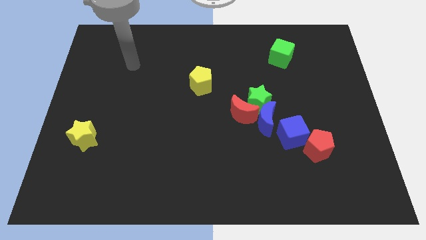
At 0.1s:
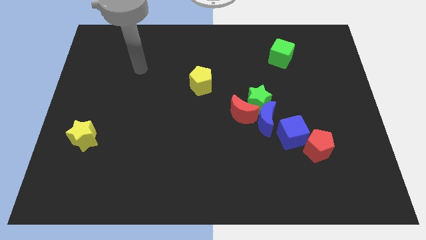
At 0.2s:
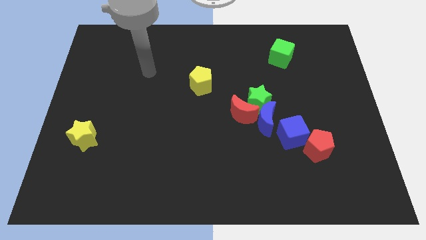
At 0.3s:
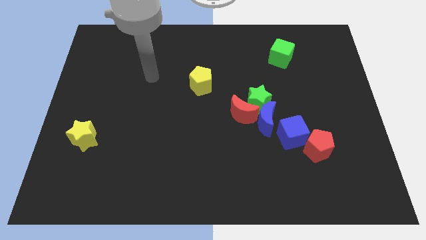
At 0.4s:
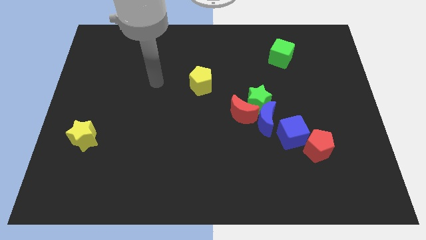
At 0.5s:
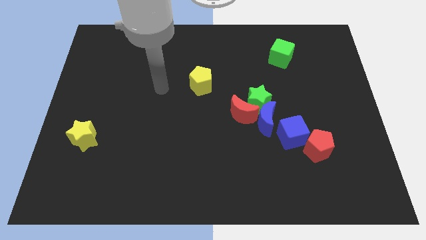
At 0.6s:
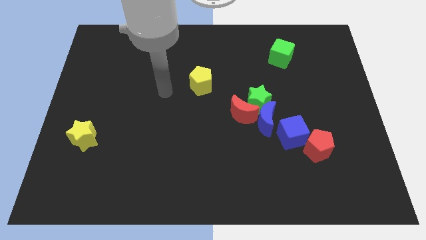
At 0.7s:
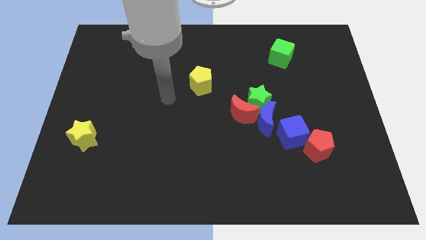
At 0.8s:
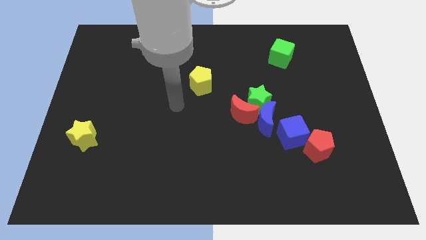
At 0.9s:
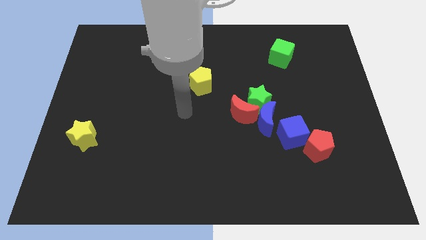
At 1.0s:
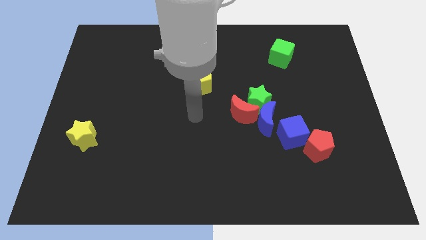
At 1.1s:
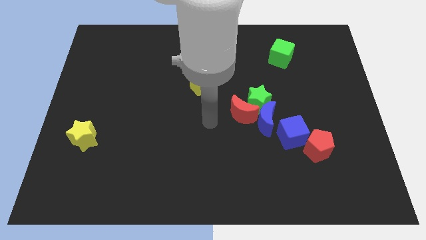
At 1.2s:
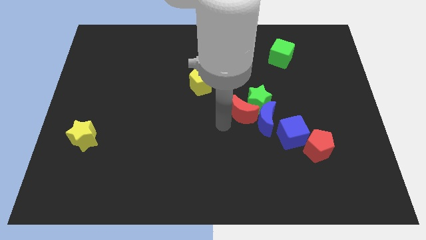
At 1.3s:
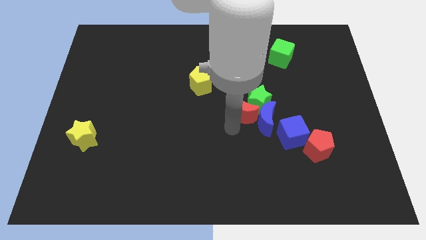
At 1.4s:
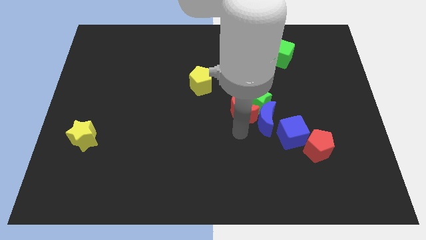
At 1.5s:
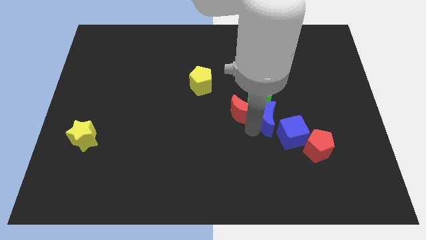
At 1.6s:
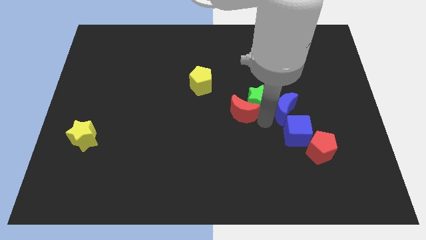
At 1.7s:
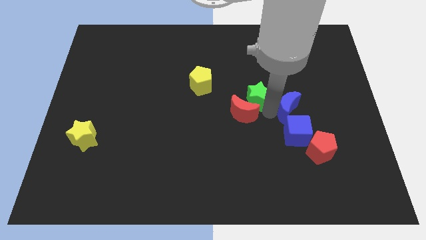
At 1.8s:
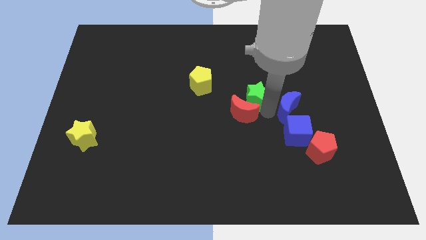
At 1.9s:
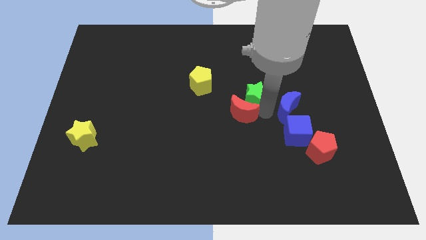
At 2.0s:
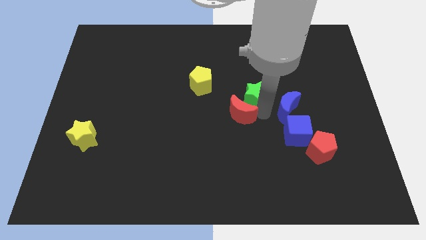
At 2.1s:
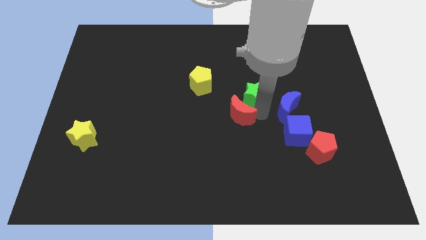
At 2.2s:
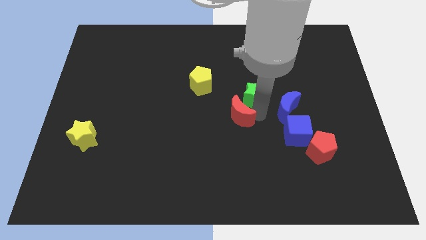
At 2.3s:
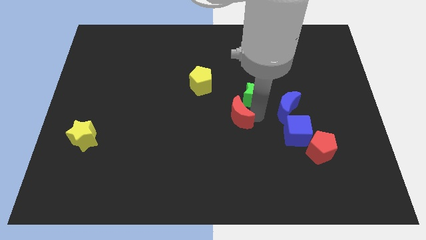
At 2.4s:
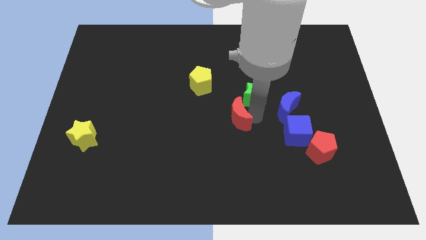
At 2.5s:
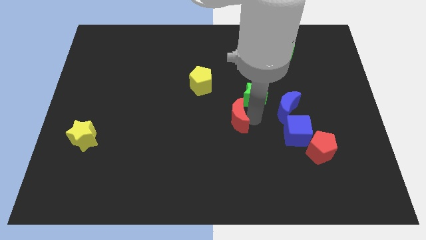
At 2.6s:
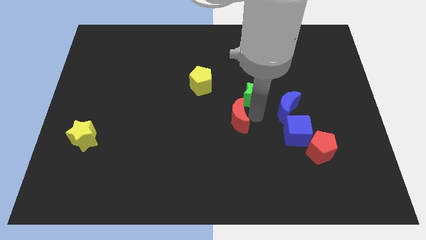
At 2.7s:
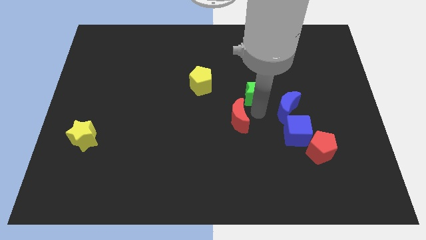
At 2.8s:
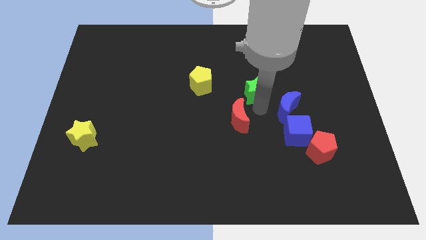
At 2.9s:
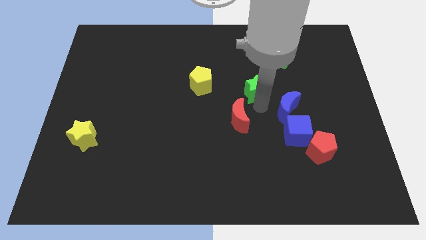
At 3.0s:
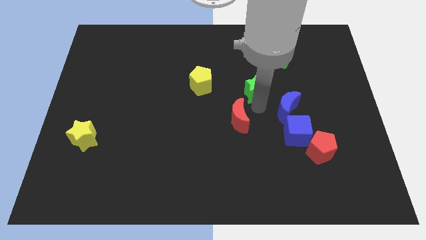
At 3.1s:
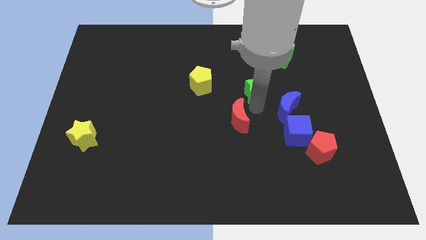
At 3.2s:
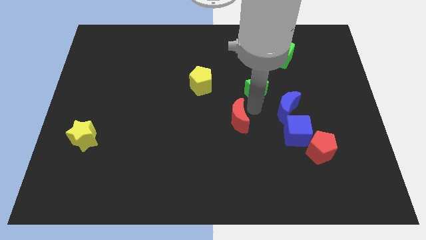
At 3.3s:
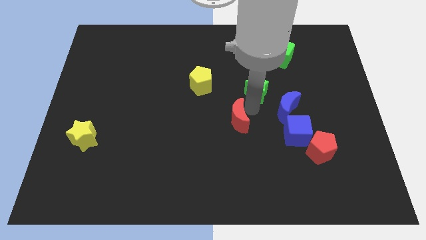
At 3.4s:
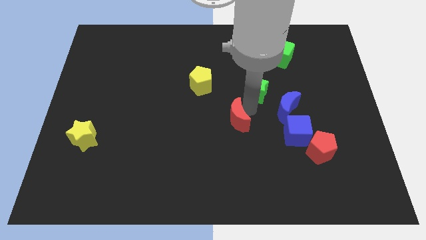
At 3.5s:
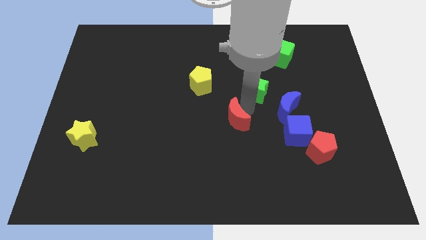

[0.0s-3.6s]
move the red moon away from the green star and blue moon

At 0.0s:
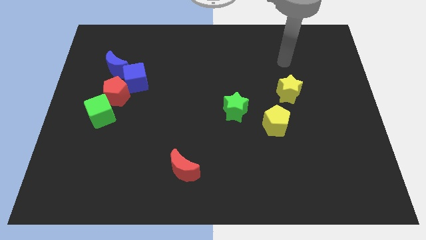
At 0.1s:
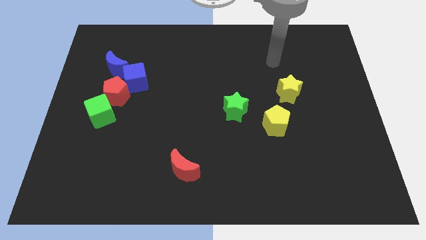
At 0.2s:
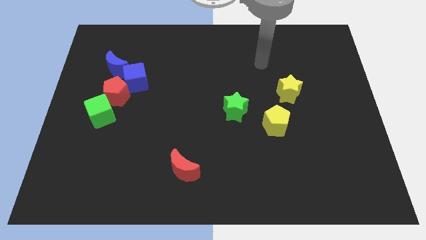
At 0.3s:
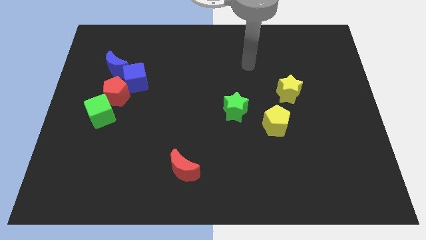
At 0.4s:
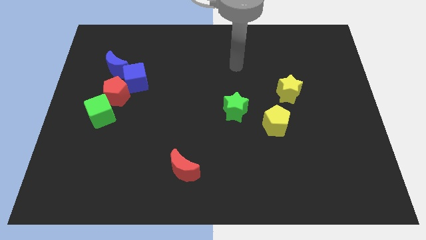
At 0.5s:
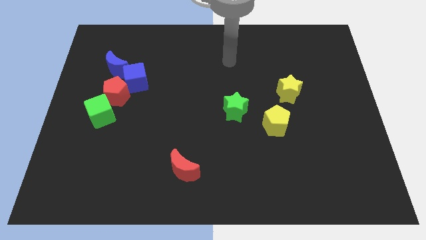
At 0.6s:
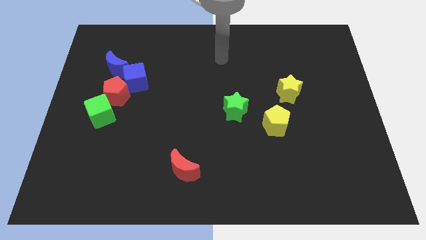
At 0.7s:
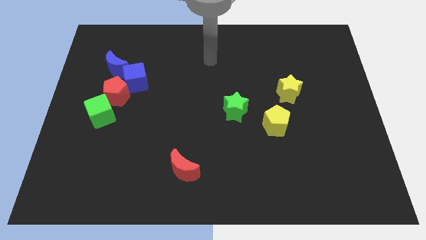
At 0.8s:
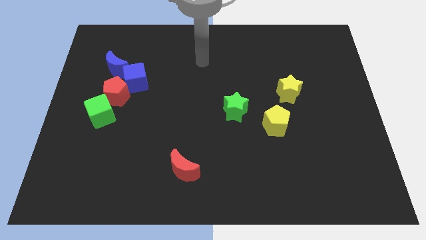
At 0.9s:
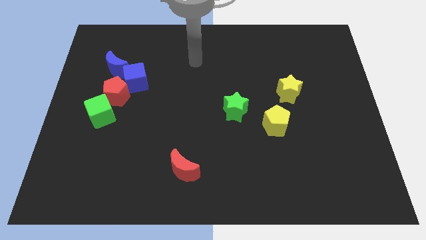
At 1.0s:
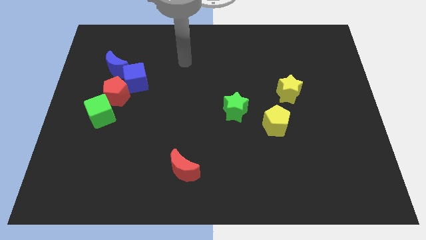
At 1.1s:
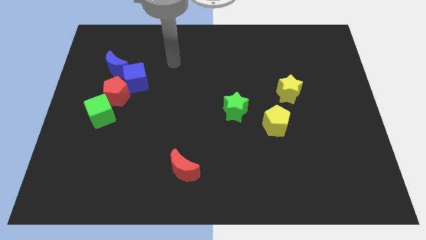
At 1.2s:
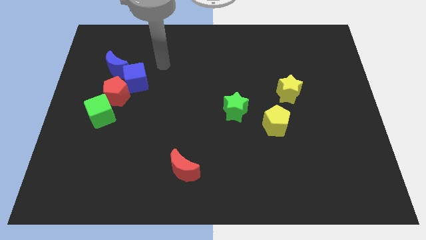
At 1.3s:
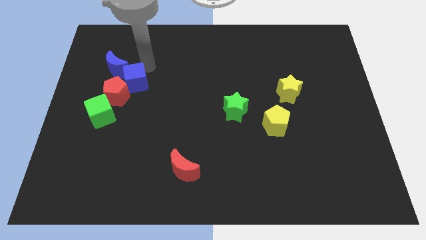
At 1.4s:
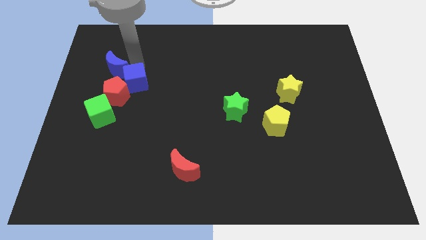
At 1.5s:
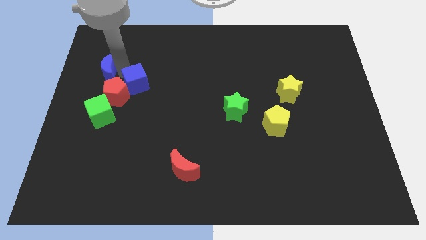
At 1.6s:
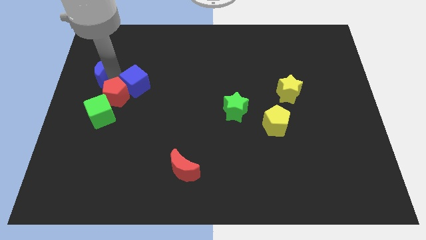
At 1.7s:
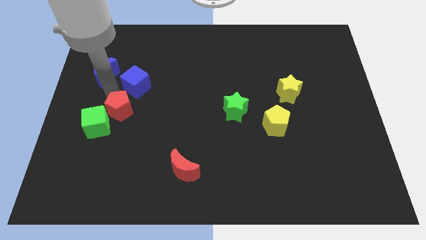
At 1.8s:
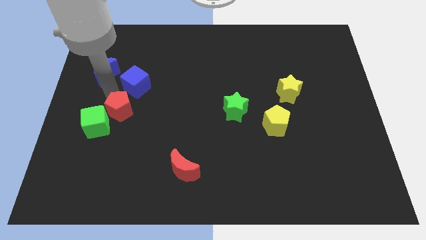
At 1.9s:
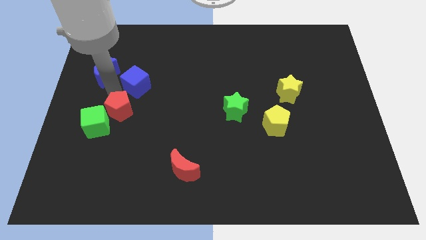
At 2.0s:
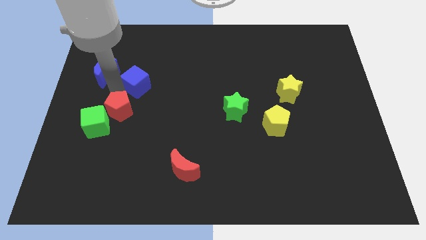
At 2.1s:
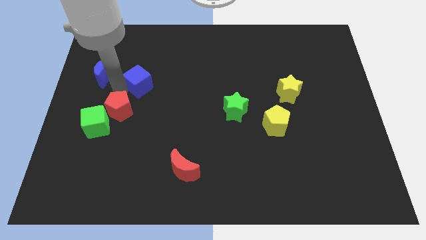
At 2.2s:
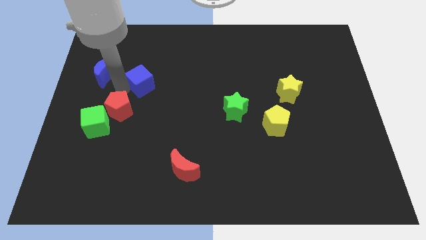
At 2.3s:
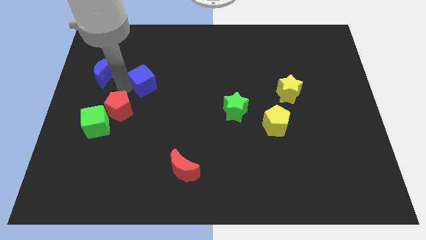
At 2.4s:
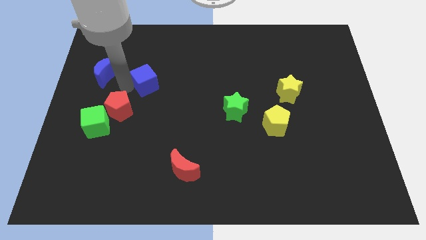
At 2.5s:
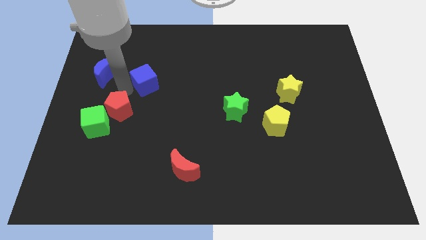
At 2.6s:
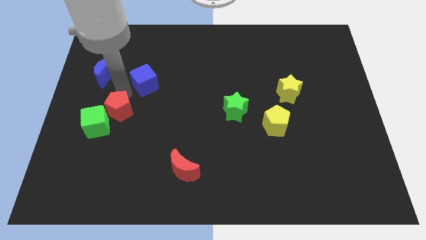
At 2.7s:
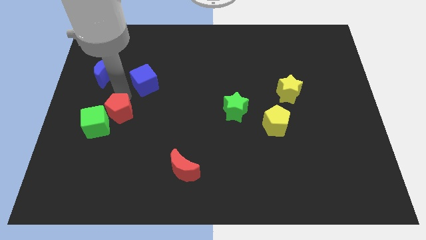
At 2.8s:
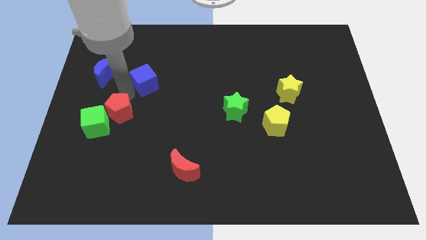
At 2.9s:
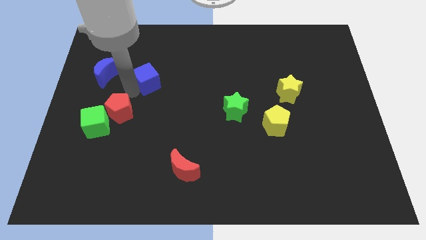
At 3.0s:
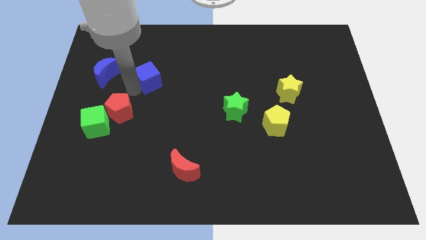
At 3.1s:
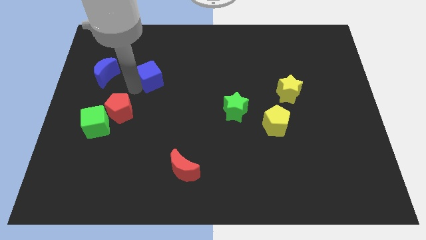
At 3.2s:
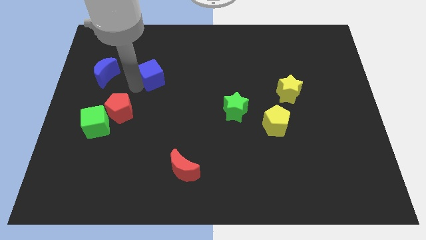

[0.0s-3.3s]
move the blue cube away from the red pentagon and blue moon

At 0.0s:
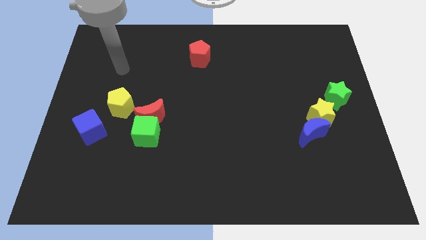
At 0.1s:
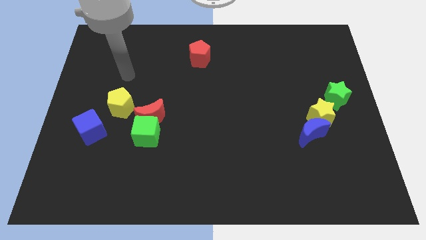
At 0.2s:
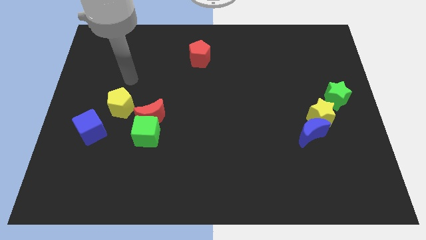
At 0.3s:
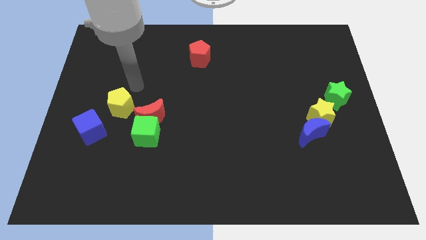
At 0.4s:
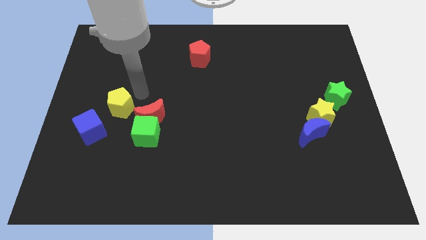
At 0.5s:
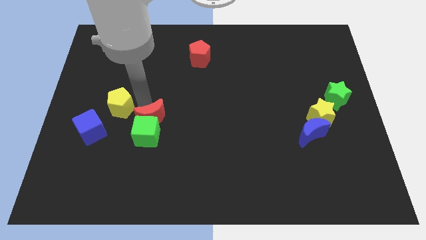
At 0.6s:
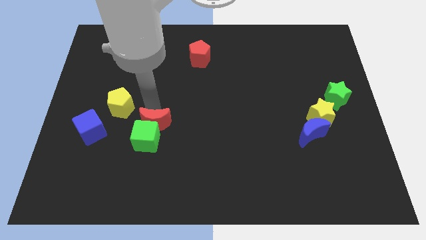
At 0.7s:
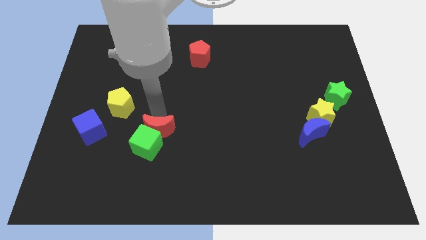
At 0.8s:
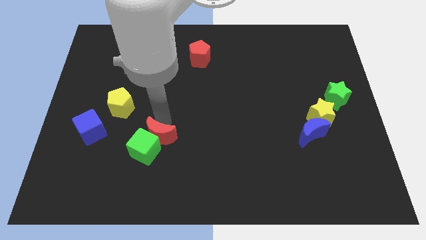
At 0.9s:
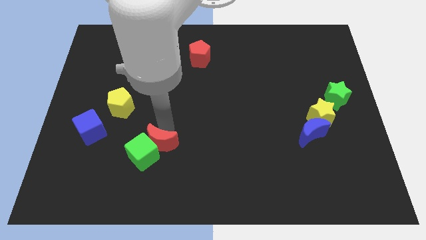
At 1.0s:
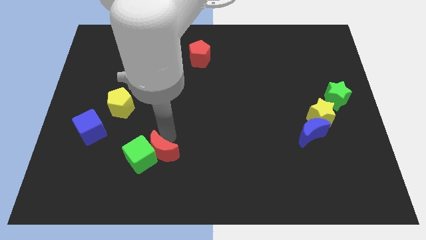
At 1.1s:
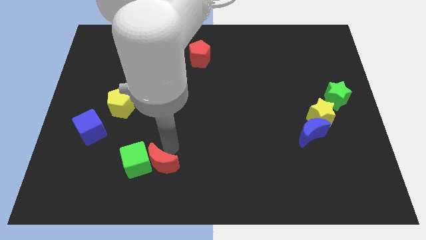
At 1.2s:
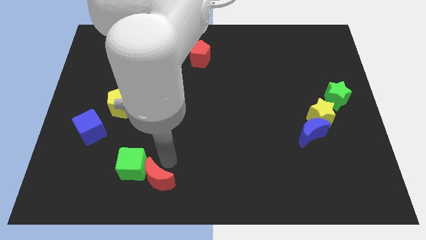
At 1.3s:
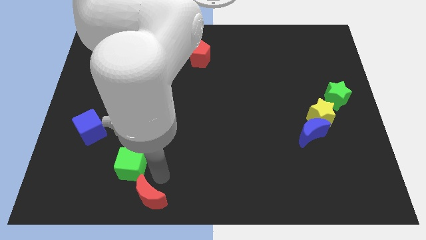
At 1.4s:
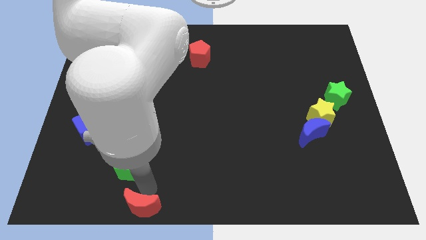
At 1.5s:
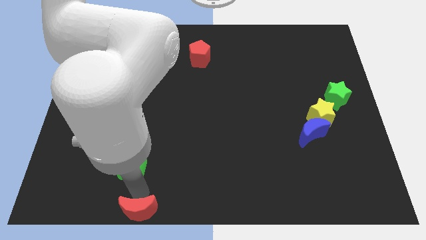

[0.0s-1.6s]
pull the green cube apart from the red moon

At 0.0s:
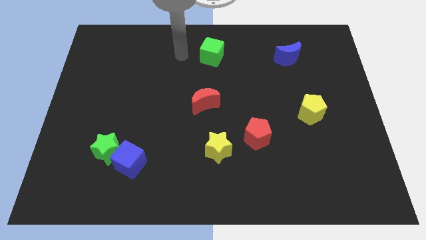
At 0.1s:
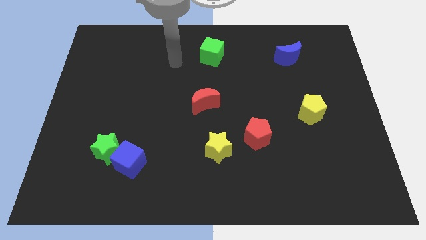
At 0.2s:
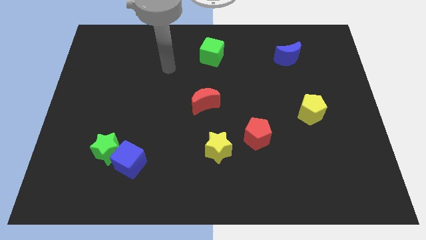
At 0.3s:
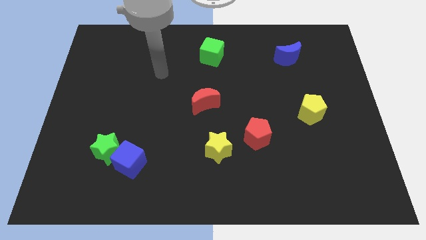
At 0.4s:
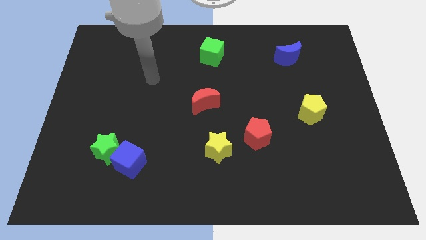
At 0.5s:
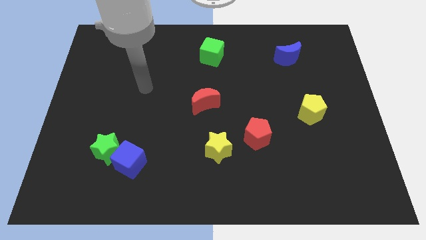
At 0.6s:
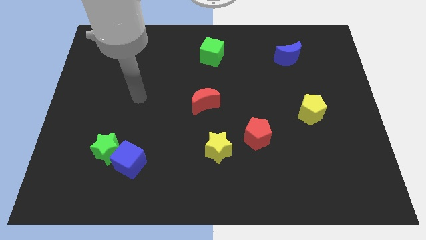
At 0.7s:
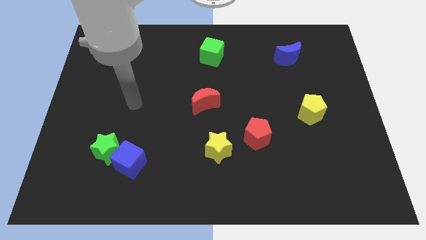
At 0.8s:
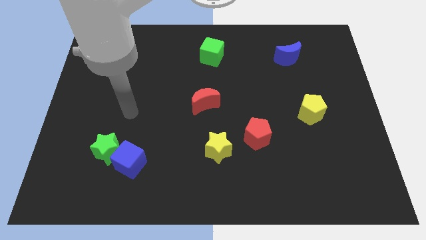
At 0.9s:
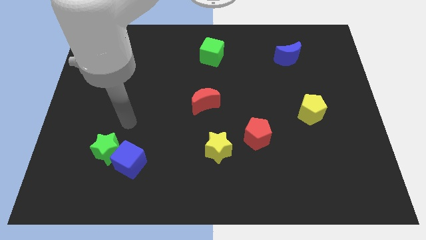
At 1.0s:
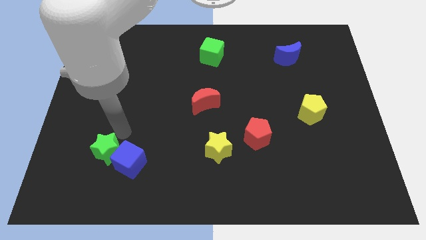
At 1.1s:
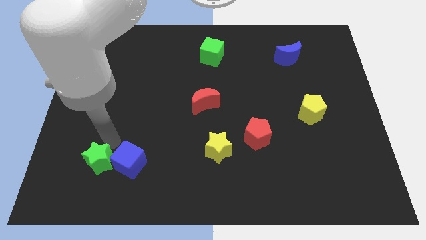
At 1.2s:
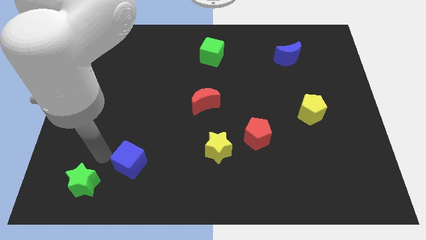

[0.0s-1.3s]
separate the blue cube from the green star
